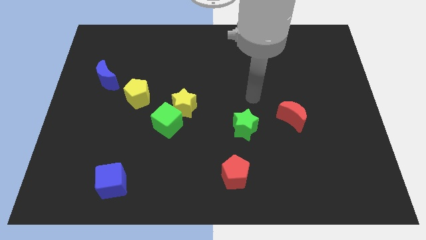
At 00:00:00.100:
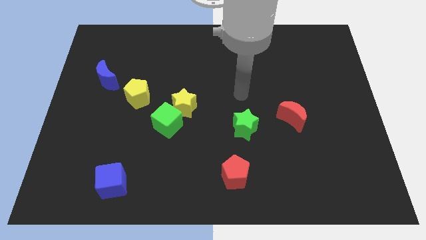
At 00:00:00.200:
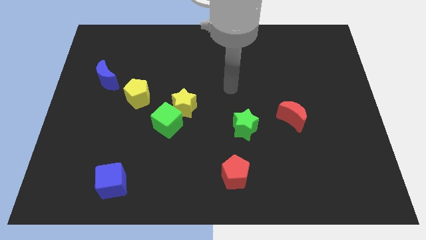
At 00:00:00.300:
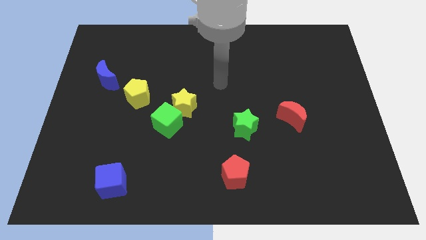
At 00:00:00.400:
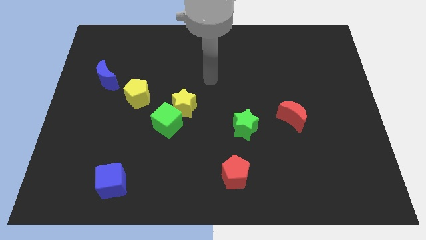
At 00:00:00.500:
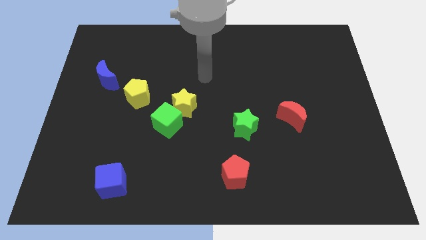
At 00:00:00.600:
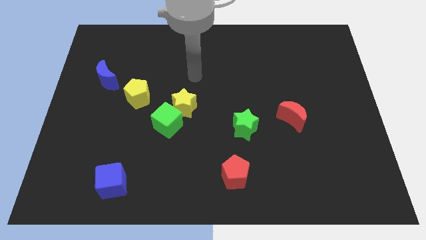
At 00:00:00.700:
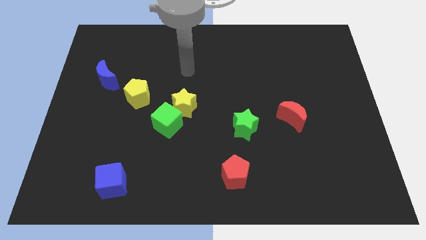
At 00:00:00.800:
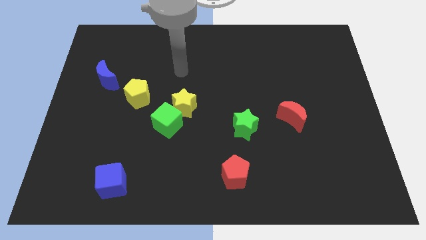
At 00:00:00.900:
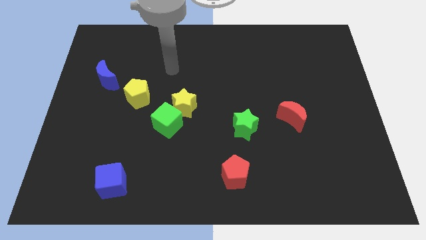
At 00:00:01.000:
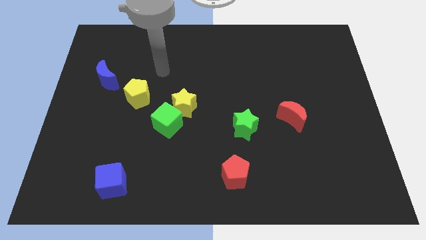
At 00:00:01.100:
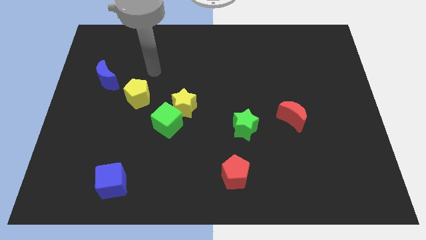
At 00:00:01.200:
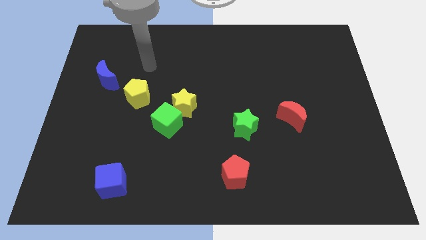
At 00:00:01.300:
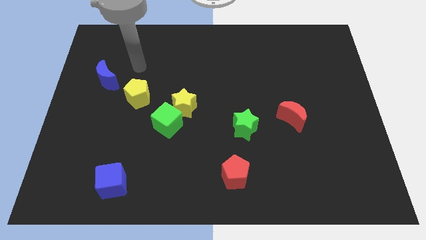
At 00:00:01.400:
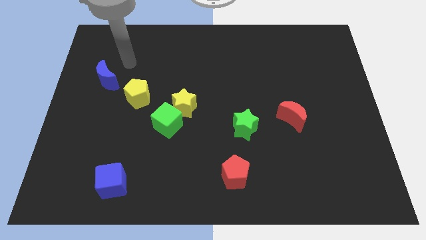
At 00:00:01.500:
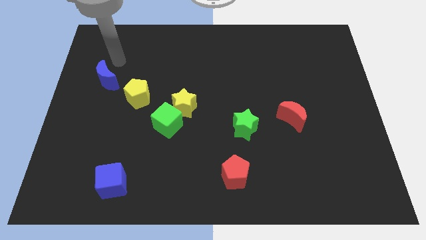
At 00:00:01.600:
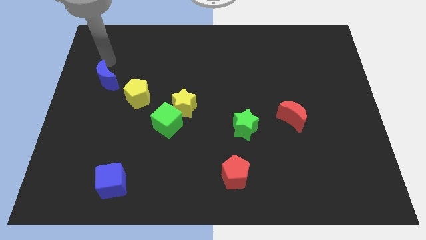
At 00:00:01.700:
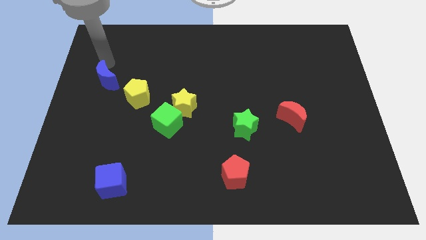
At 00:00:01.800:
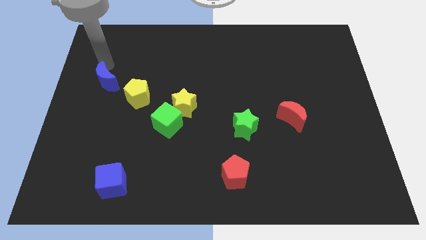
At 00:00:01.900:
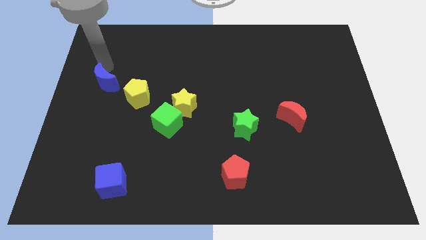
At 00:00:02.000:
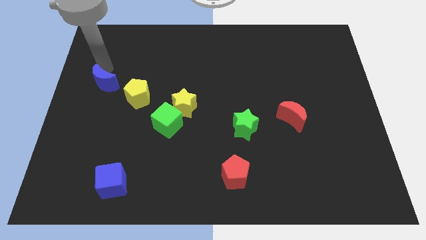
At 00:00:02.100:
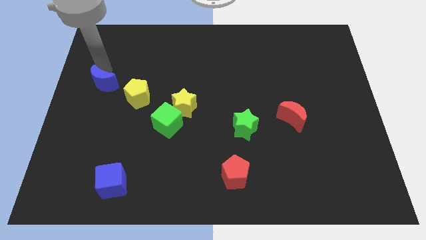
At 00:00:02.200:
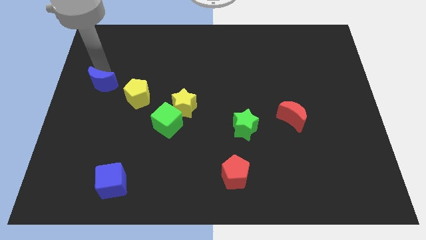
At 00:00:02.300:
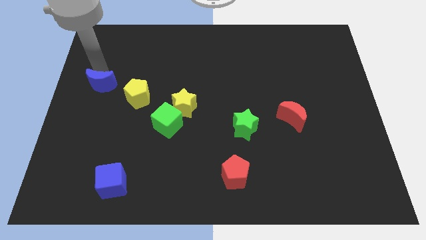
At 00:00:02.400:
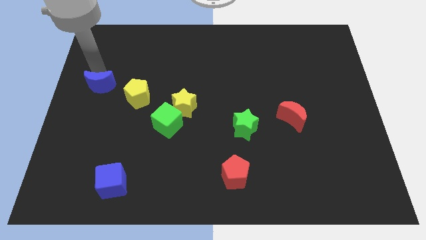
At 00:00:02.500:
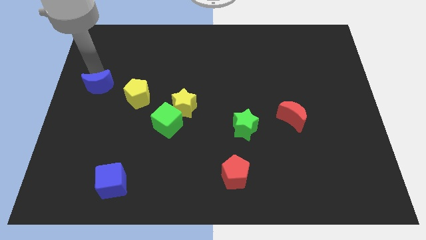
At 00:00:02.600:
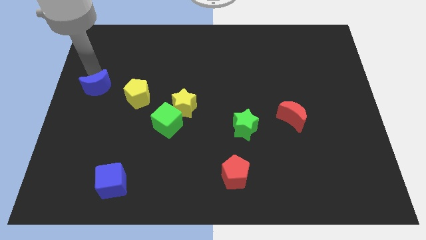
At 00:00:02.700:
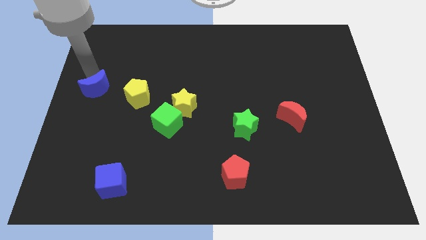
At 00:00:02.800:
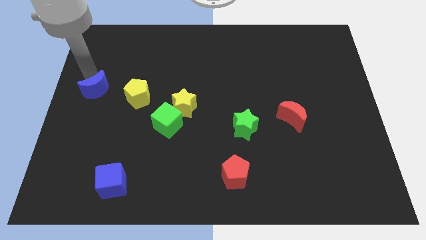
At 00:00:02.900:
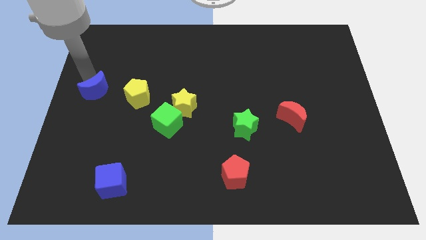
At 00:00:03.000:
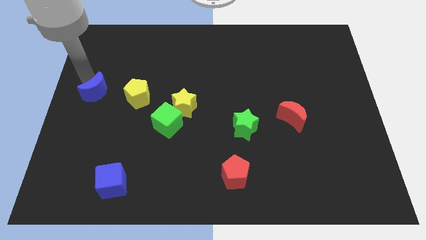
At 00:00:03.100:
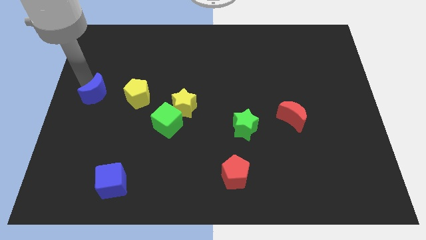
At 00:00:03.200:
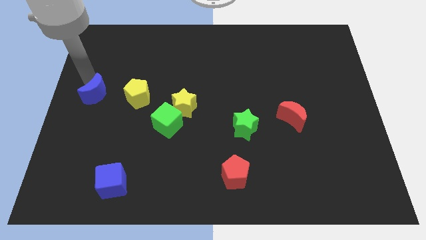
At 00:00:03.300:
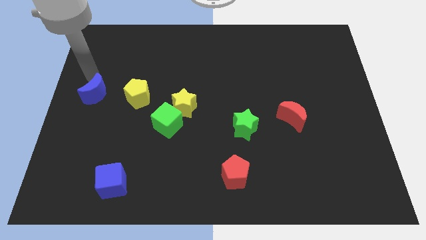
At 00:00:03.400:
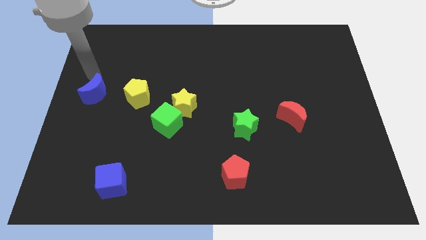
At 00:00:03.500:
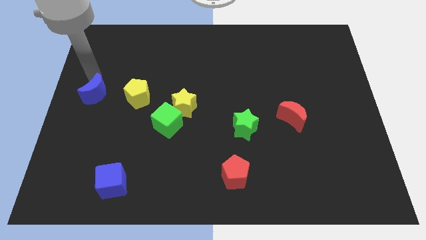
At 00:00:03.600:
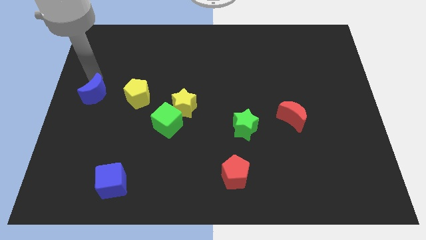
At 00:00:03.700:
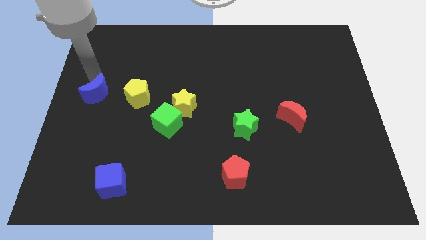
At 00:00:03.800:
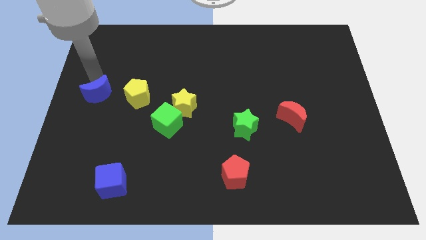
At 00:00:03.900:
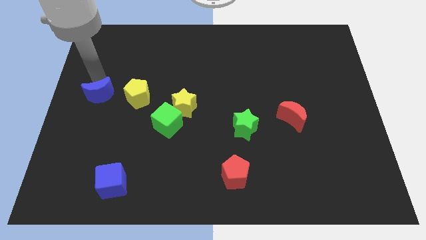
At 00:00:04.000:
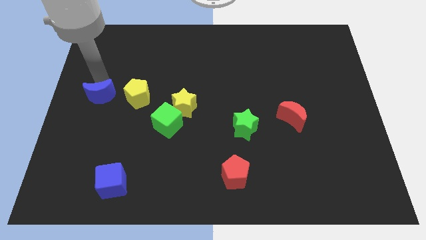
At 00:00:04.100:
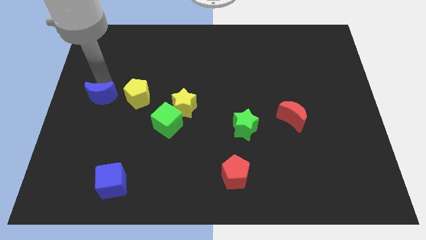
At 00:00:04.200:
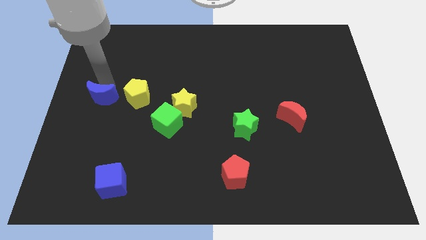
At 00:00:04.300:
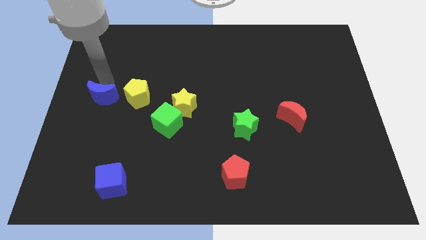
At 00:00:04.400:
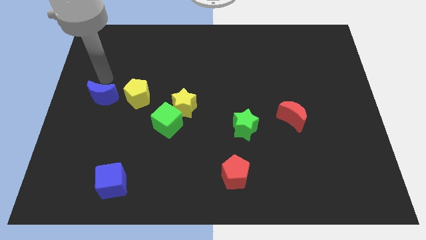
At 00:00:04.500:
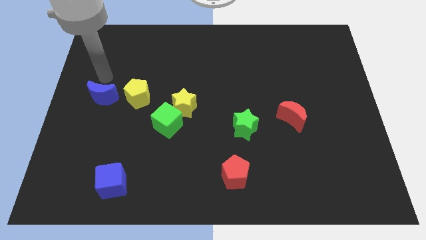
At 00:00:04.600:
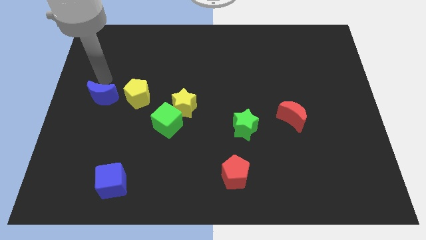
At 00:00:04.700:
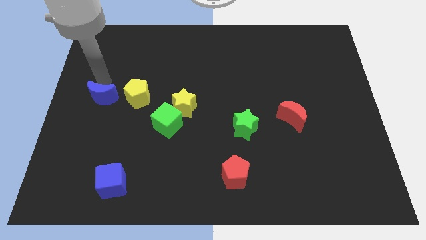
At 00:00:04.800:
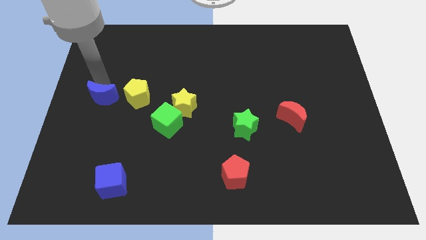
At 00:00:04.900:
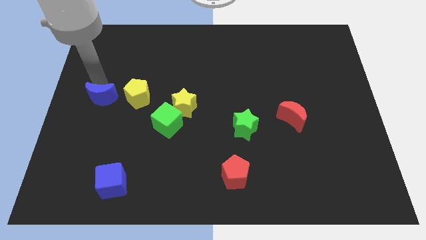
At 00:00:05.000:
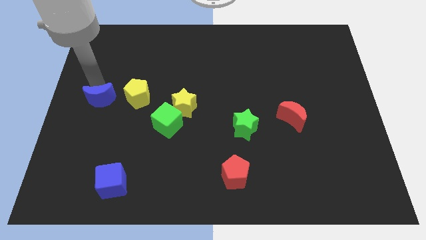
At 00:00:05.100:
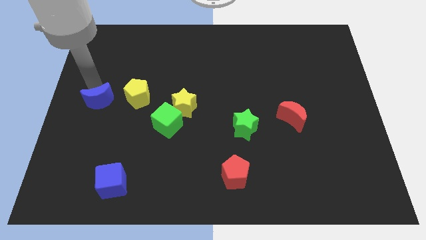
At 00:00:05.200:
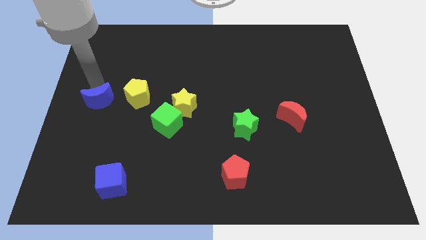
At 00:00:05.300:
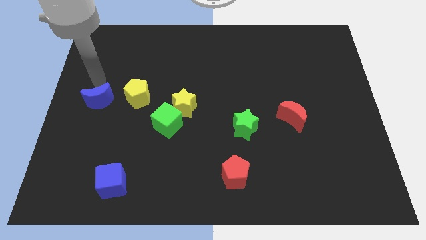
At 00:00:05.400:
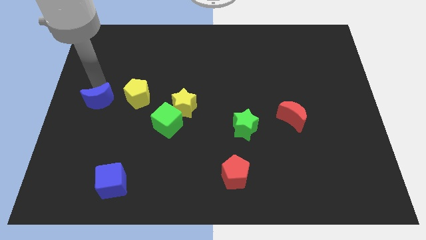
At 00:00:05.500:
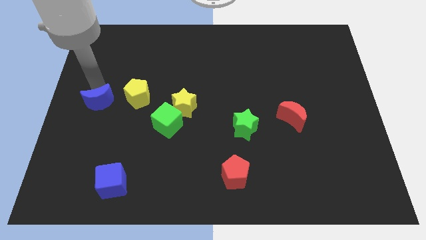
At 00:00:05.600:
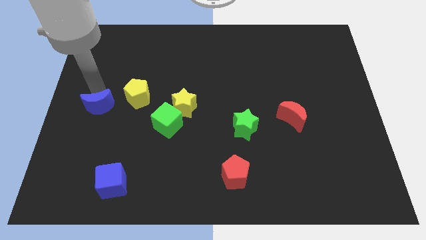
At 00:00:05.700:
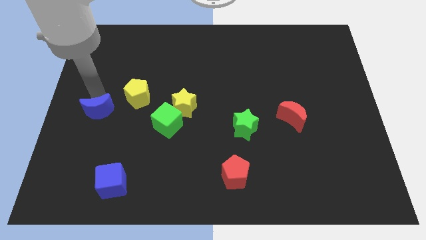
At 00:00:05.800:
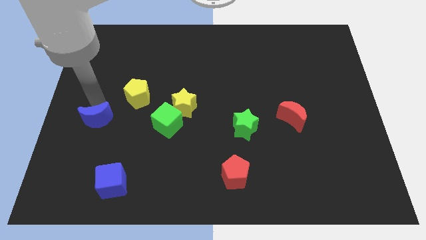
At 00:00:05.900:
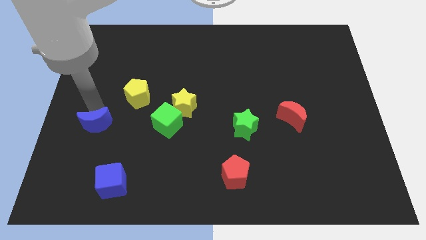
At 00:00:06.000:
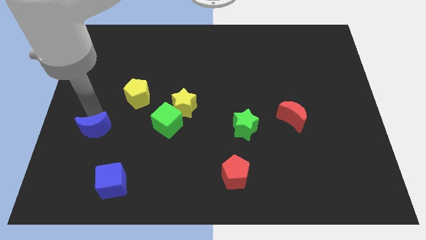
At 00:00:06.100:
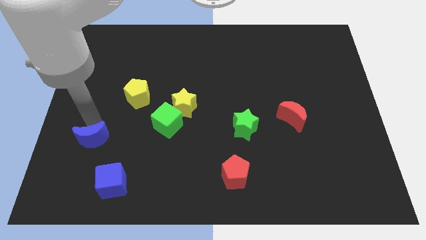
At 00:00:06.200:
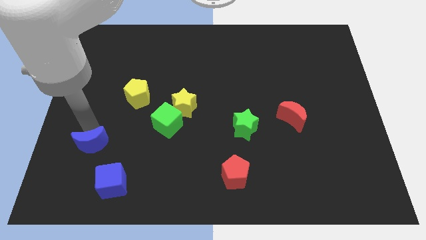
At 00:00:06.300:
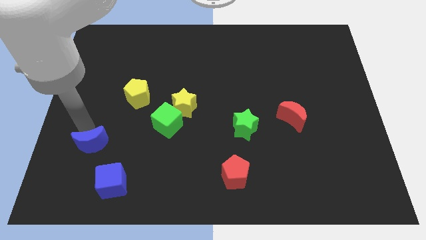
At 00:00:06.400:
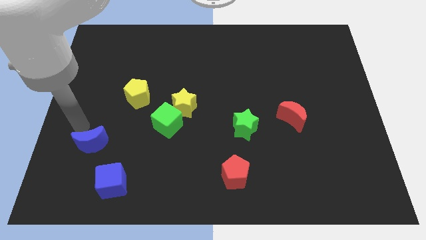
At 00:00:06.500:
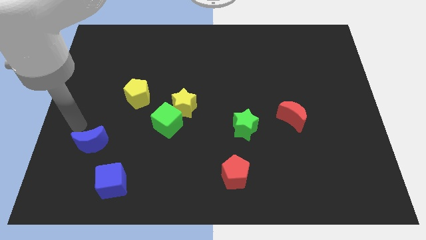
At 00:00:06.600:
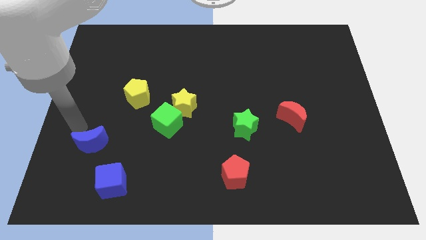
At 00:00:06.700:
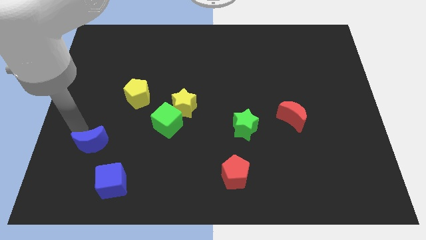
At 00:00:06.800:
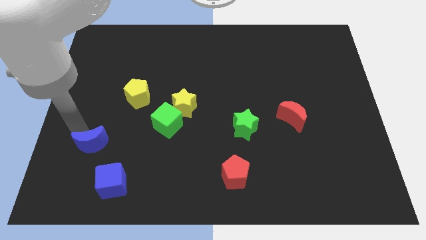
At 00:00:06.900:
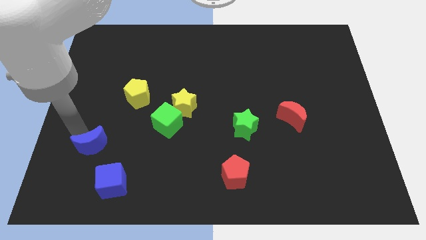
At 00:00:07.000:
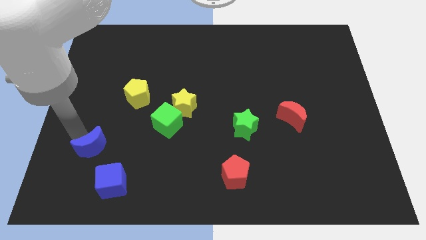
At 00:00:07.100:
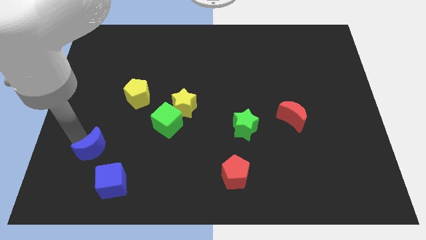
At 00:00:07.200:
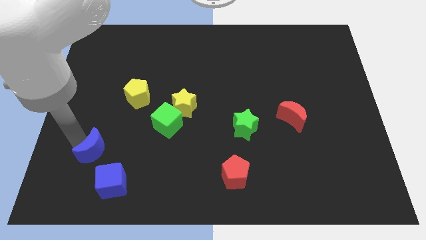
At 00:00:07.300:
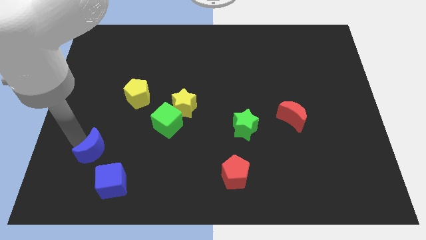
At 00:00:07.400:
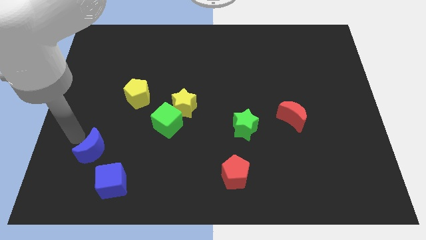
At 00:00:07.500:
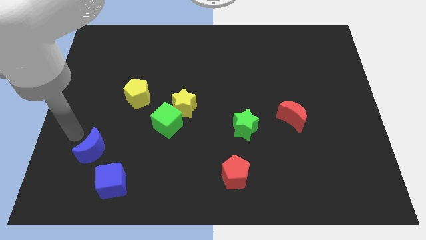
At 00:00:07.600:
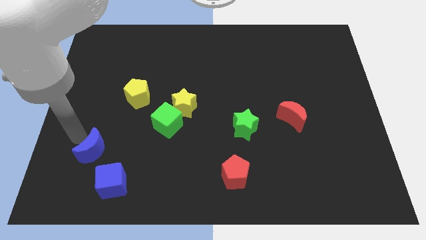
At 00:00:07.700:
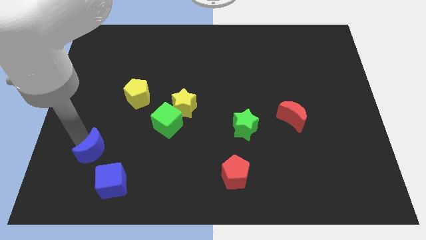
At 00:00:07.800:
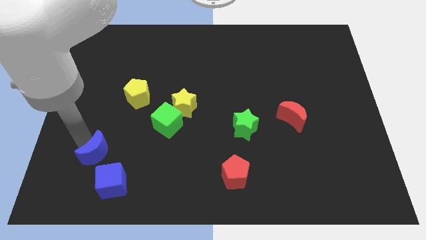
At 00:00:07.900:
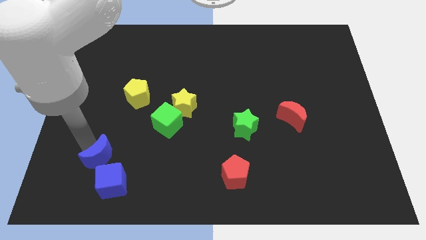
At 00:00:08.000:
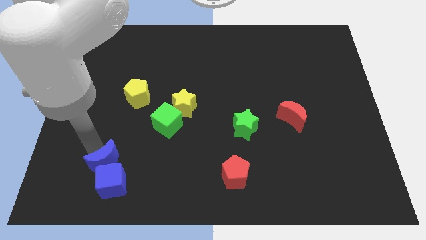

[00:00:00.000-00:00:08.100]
push the blue moon next to the blue cube
